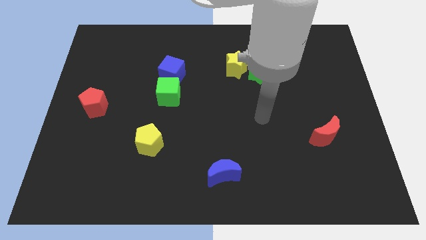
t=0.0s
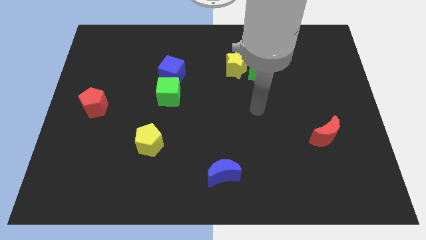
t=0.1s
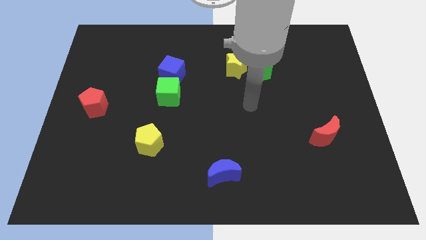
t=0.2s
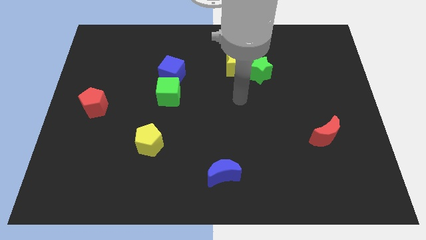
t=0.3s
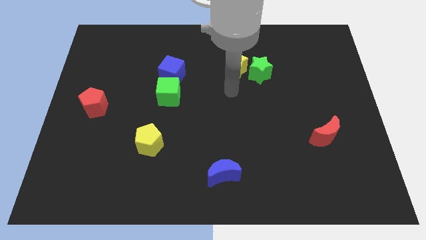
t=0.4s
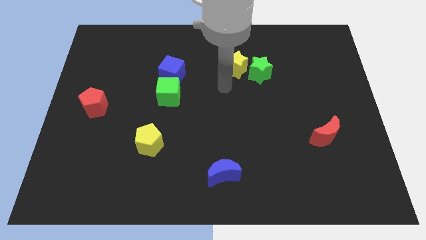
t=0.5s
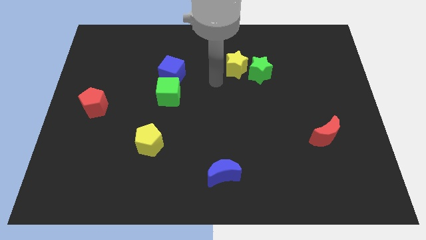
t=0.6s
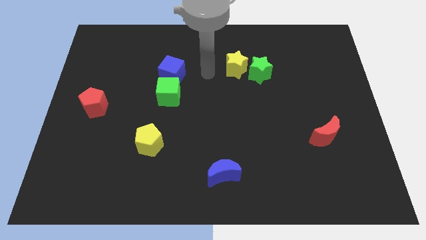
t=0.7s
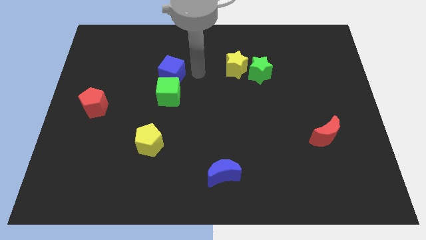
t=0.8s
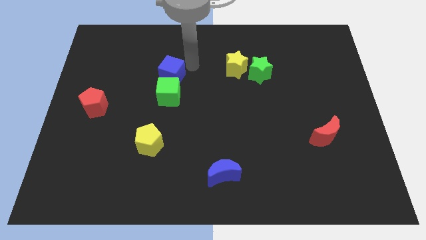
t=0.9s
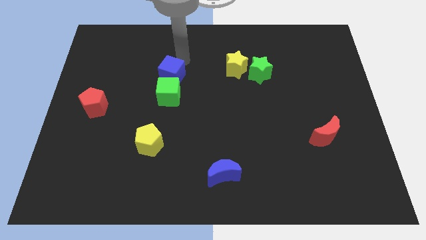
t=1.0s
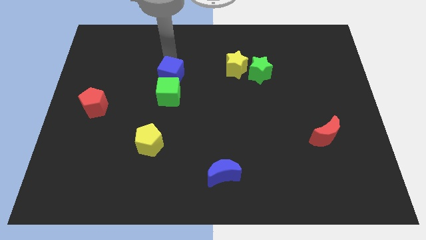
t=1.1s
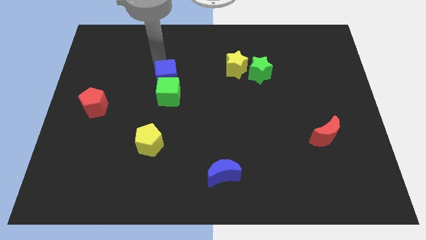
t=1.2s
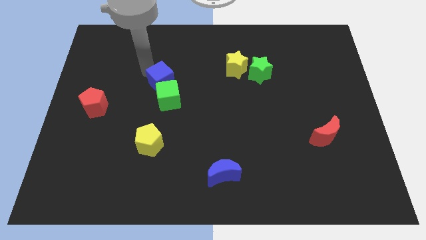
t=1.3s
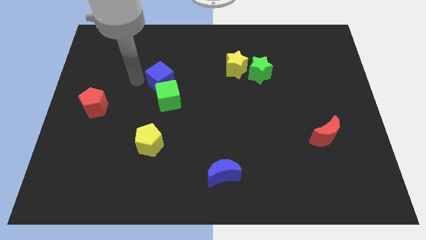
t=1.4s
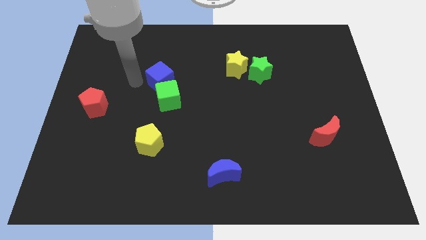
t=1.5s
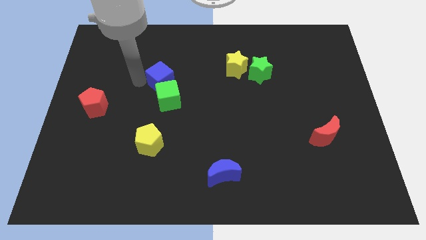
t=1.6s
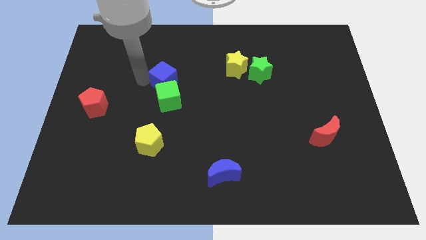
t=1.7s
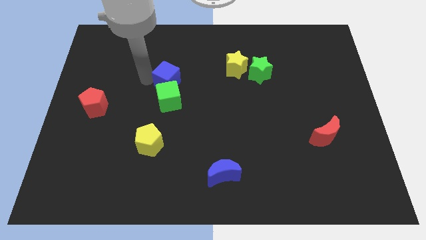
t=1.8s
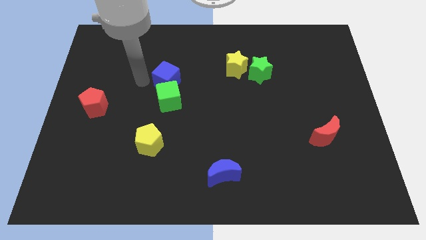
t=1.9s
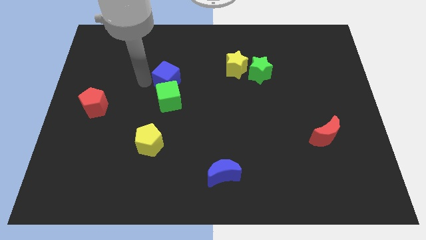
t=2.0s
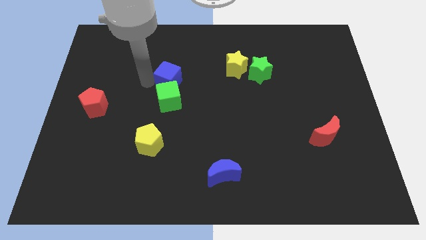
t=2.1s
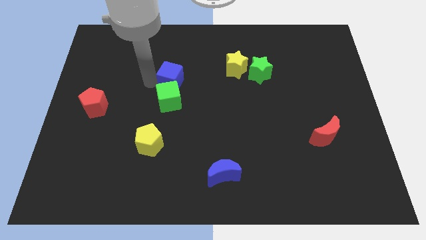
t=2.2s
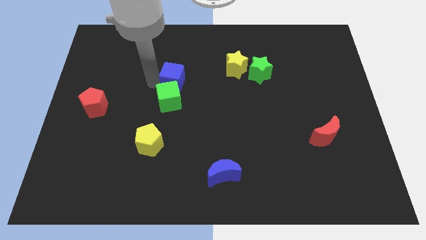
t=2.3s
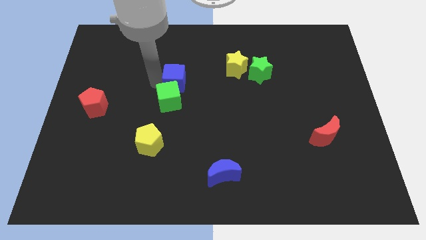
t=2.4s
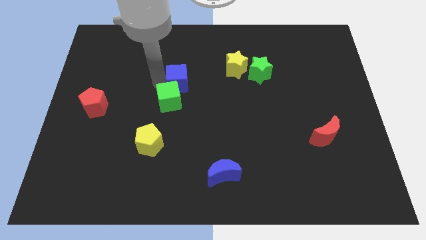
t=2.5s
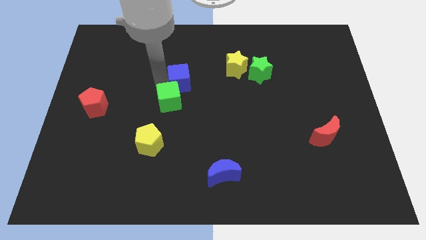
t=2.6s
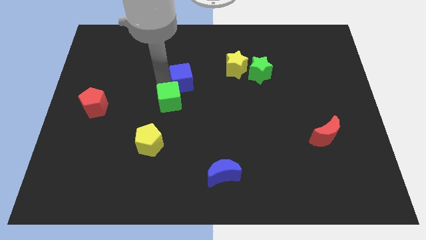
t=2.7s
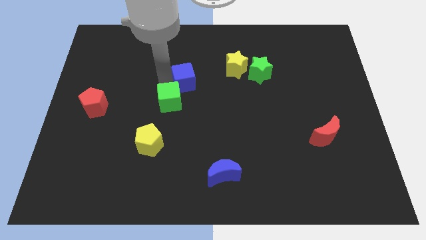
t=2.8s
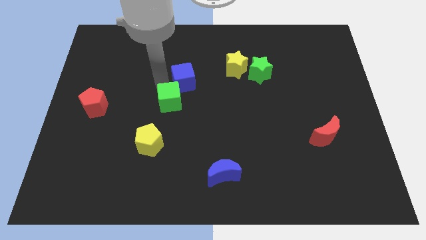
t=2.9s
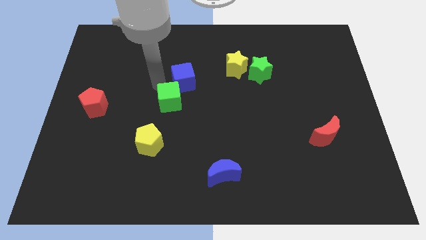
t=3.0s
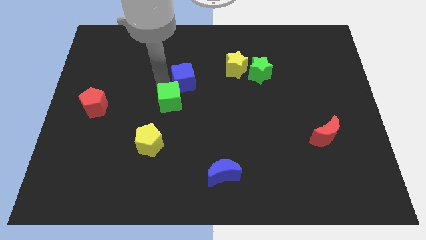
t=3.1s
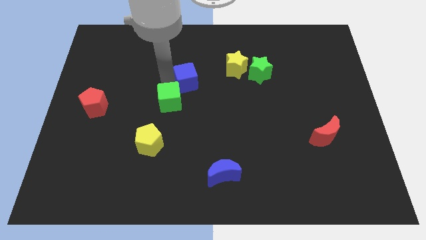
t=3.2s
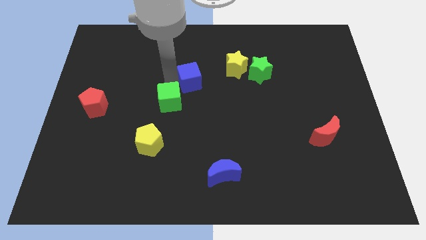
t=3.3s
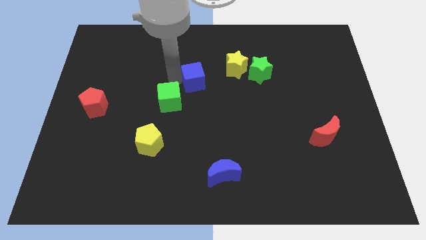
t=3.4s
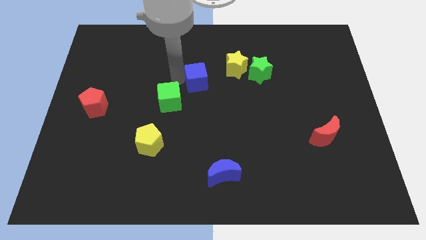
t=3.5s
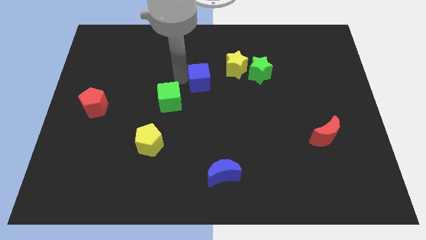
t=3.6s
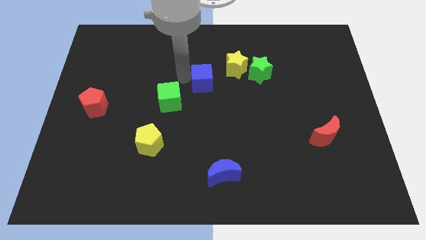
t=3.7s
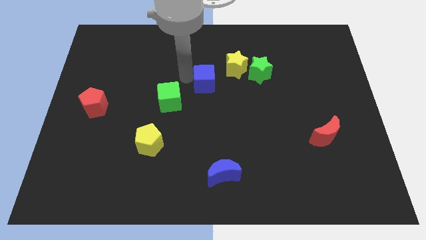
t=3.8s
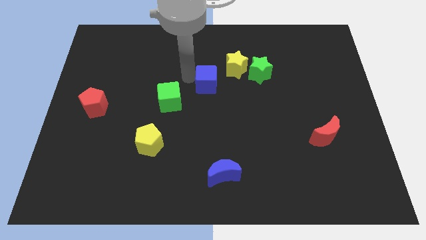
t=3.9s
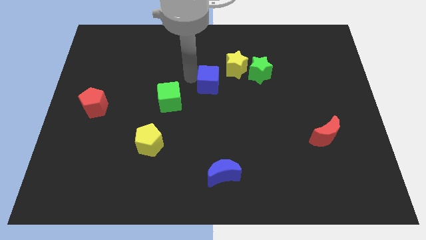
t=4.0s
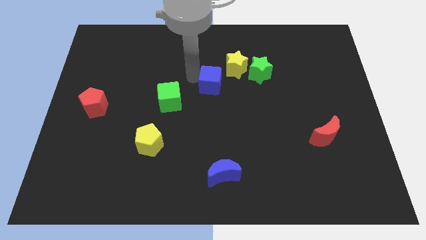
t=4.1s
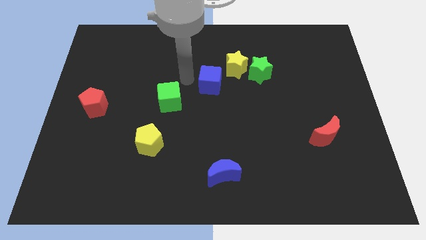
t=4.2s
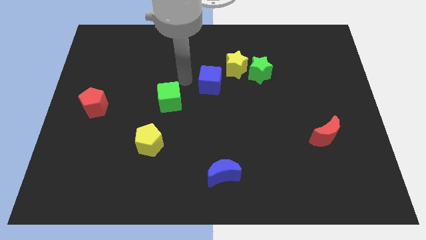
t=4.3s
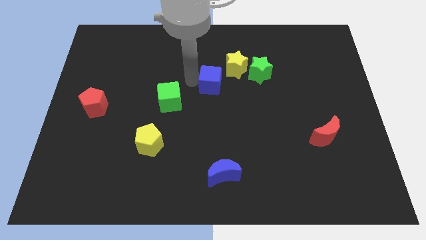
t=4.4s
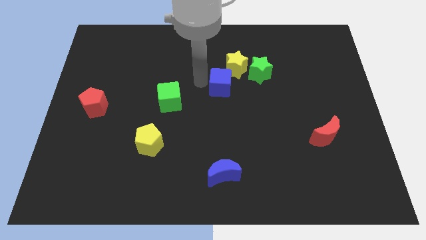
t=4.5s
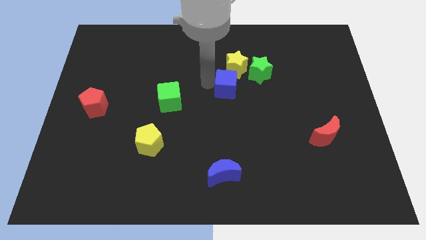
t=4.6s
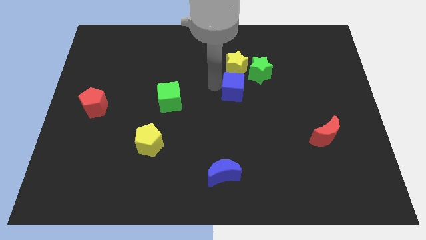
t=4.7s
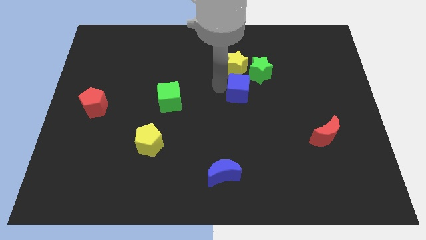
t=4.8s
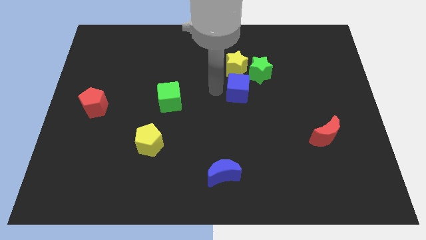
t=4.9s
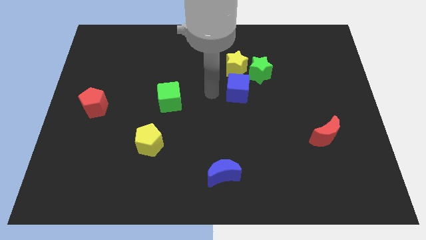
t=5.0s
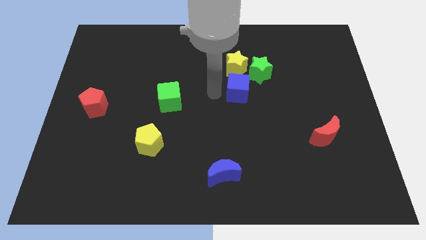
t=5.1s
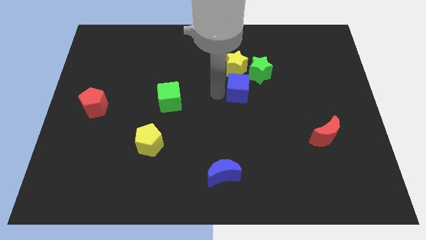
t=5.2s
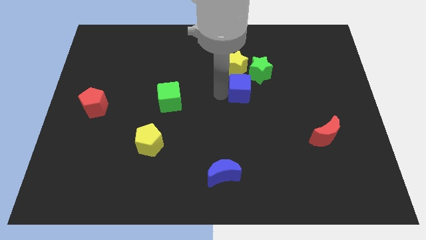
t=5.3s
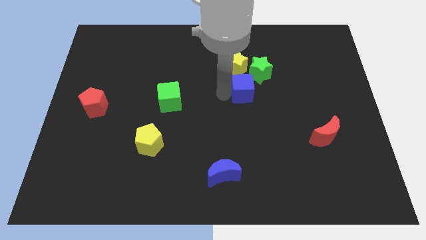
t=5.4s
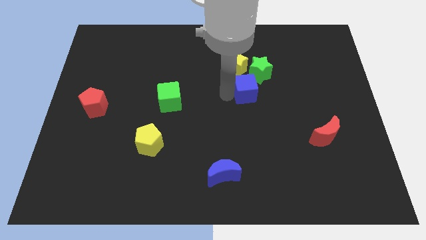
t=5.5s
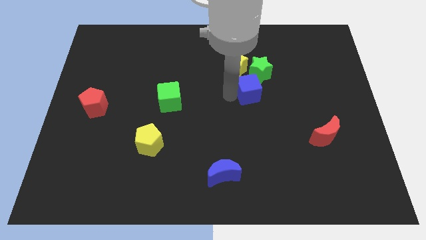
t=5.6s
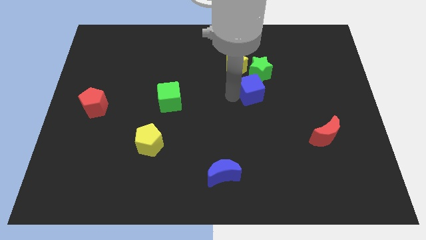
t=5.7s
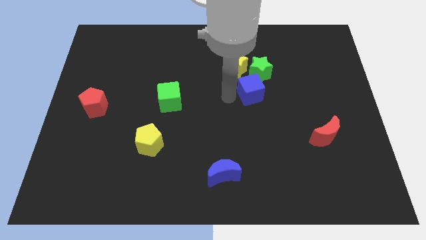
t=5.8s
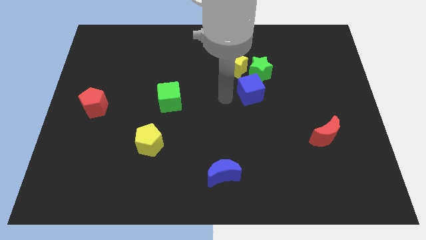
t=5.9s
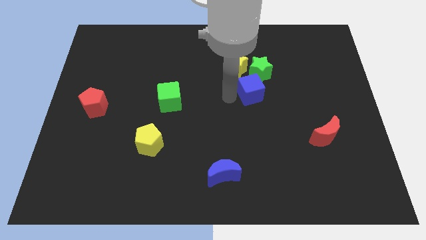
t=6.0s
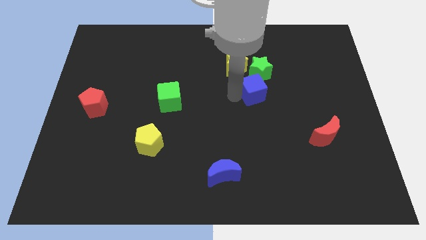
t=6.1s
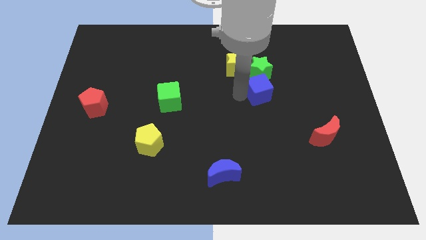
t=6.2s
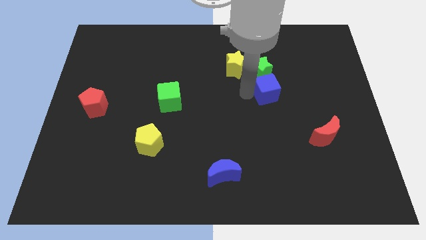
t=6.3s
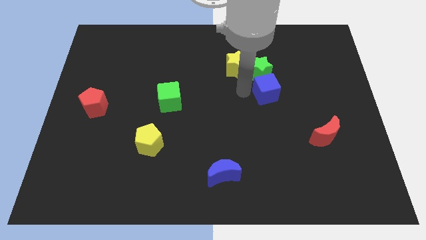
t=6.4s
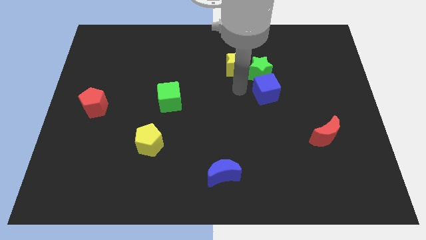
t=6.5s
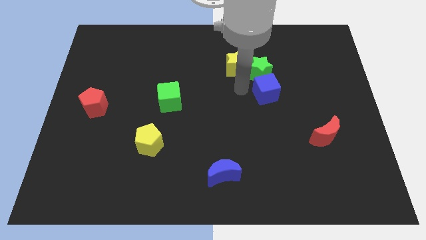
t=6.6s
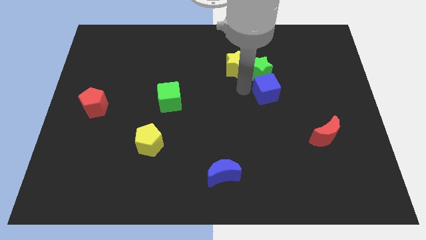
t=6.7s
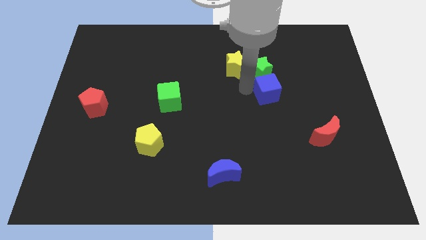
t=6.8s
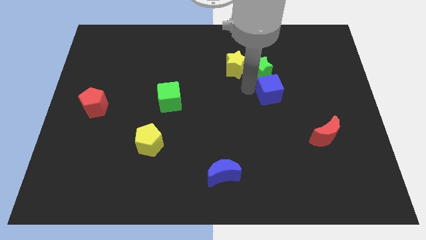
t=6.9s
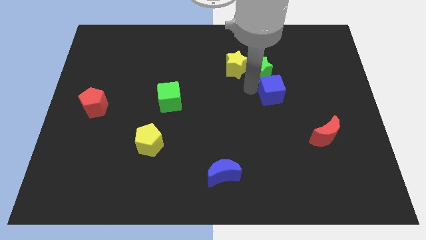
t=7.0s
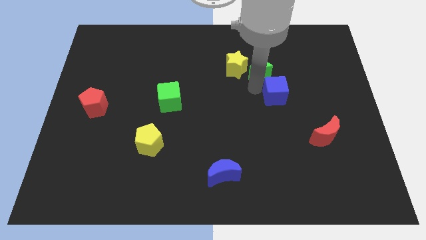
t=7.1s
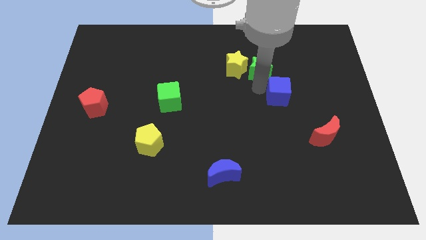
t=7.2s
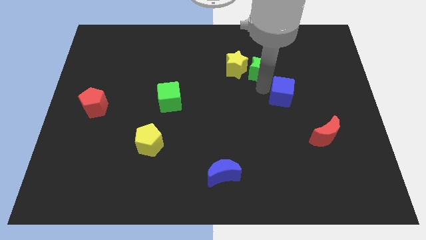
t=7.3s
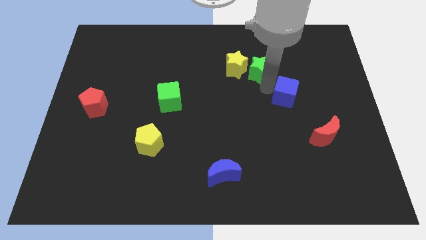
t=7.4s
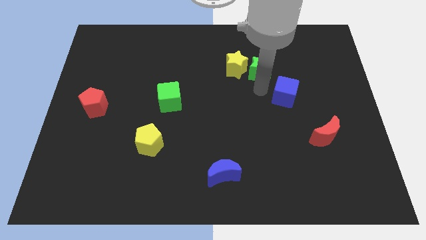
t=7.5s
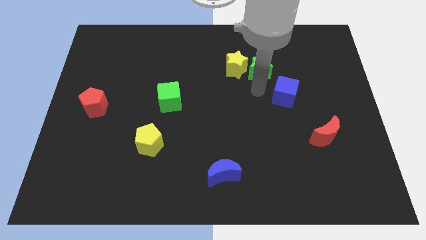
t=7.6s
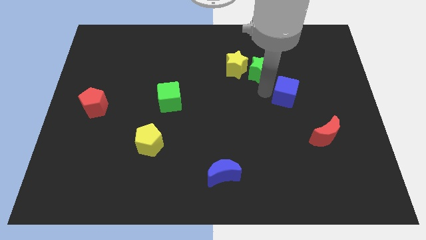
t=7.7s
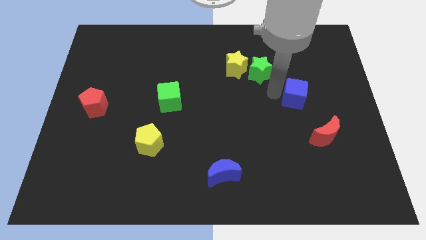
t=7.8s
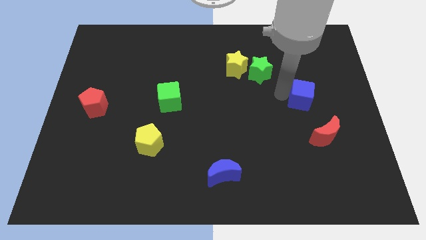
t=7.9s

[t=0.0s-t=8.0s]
push the blue cube above the red moon
